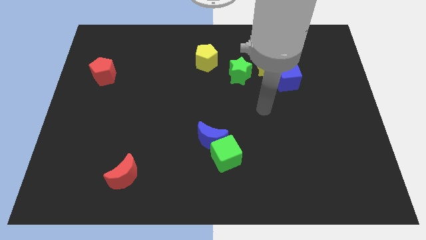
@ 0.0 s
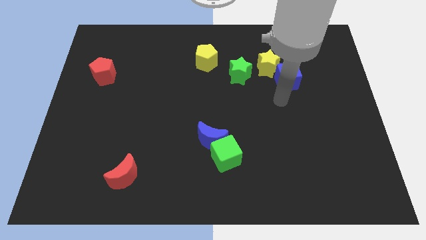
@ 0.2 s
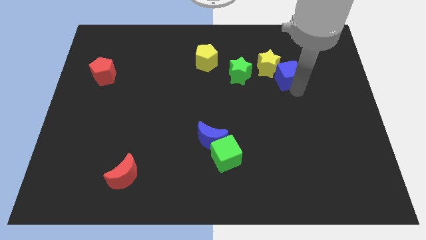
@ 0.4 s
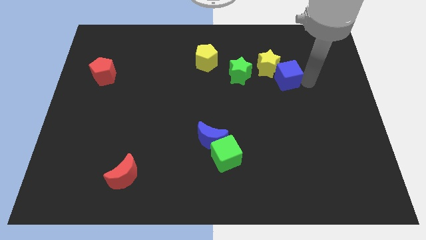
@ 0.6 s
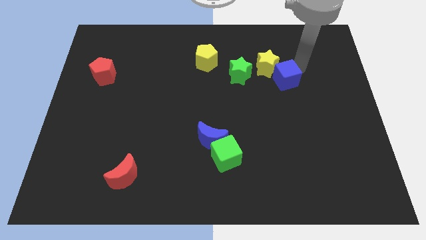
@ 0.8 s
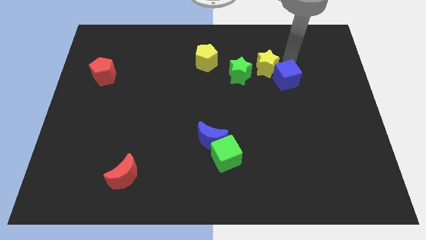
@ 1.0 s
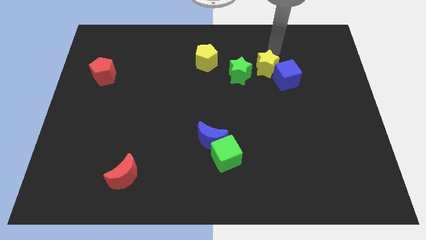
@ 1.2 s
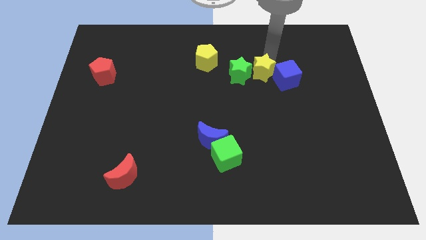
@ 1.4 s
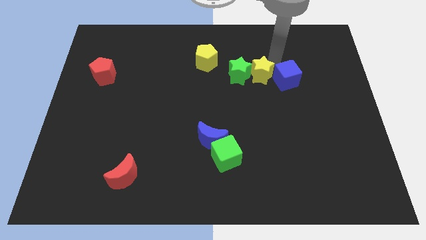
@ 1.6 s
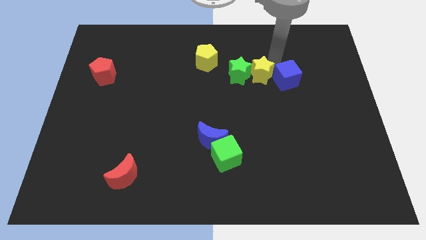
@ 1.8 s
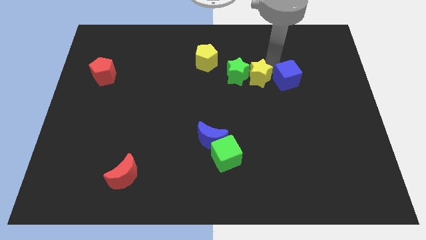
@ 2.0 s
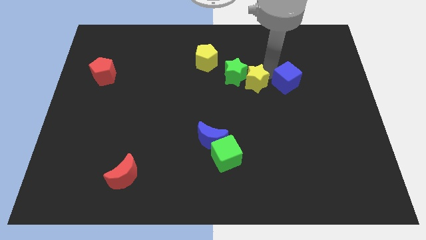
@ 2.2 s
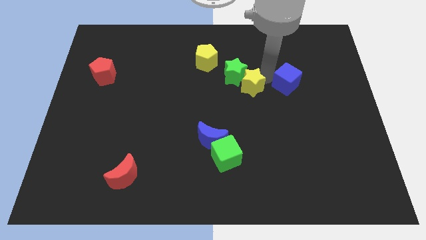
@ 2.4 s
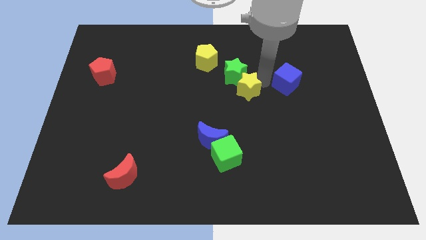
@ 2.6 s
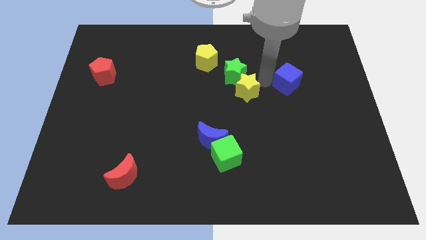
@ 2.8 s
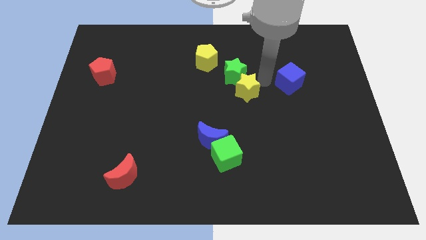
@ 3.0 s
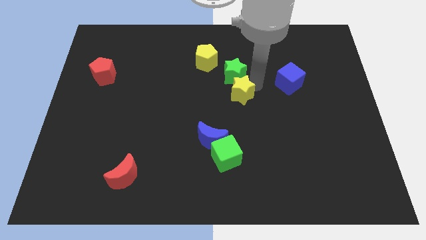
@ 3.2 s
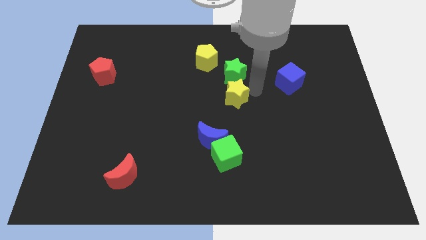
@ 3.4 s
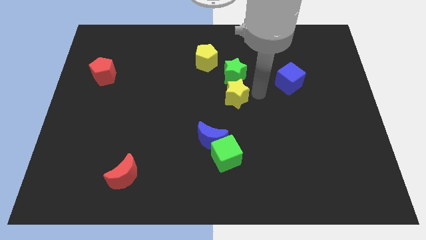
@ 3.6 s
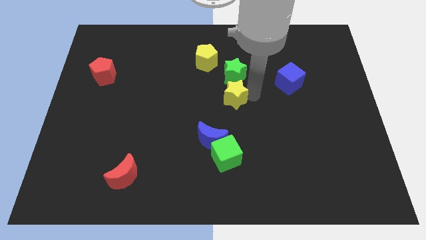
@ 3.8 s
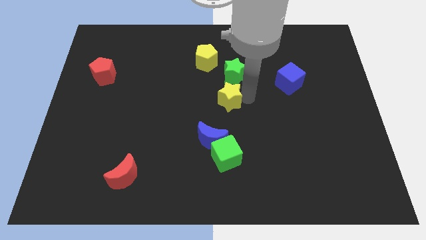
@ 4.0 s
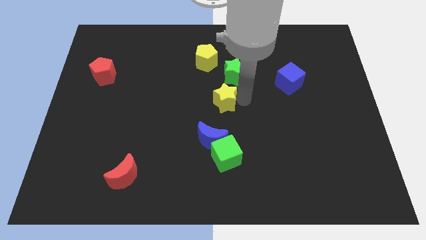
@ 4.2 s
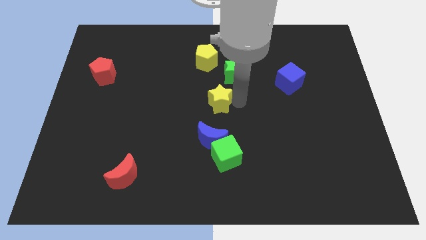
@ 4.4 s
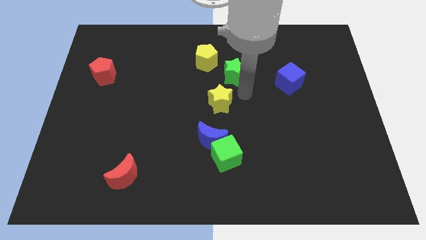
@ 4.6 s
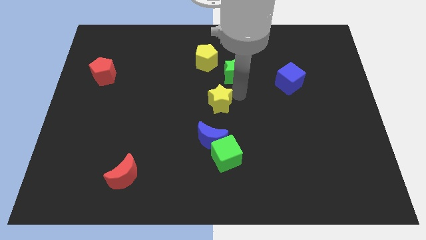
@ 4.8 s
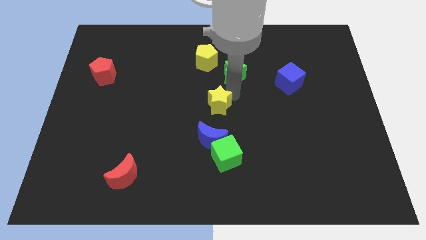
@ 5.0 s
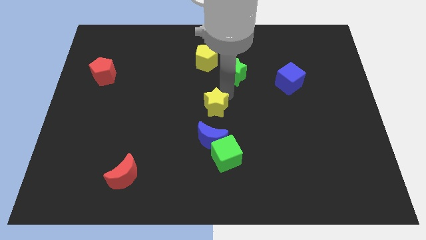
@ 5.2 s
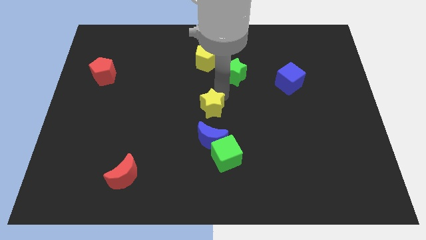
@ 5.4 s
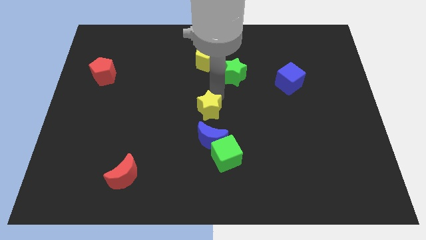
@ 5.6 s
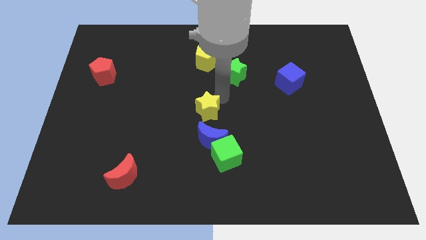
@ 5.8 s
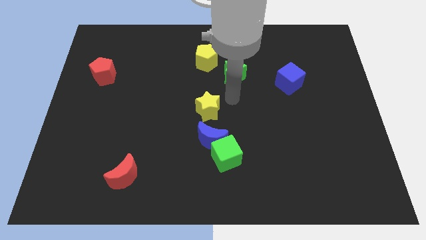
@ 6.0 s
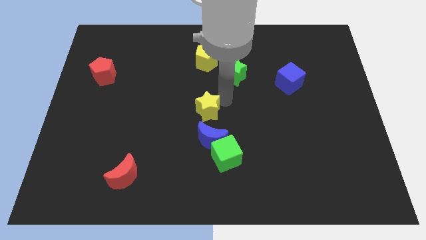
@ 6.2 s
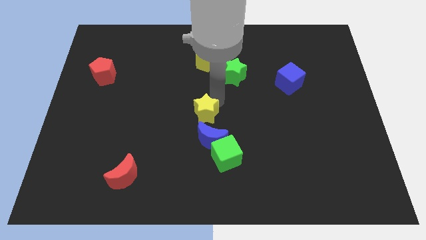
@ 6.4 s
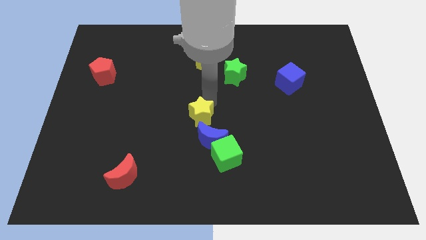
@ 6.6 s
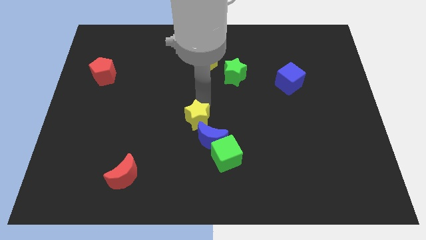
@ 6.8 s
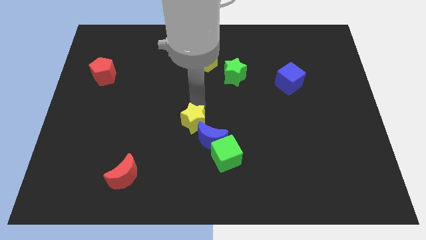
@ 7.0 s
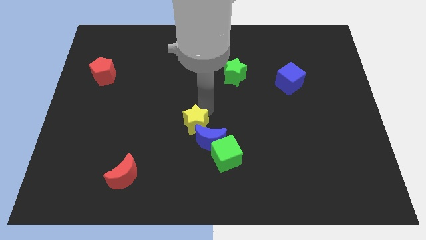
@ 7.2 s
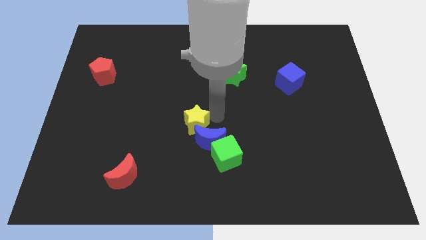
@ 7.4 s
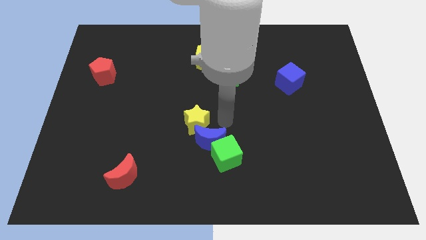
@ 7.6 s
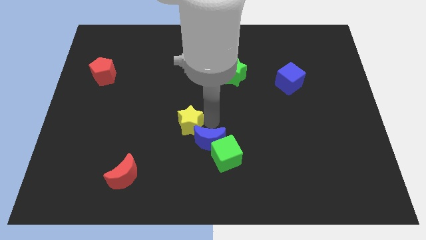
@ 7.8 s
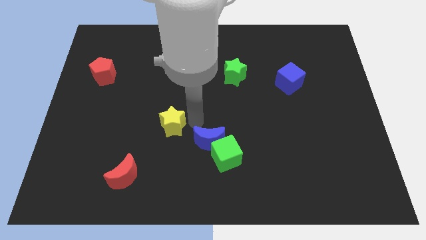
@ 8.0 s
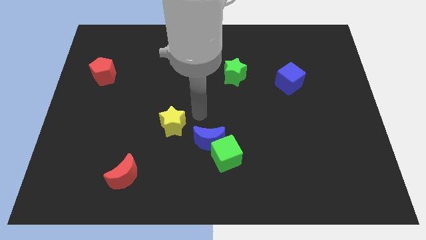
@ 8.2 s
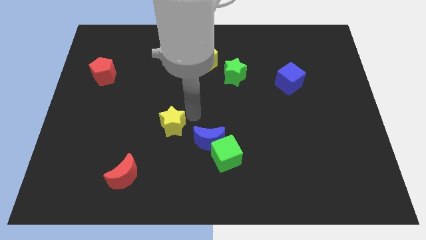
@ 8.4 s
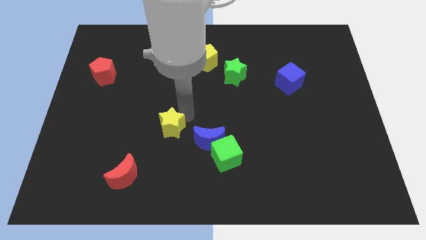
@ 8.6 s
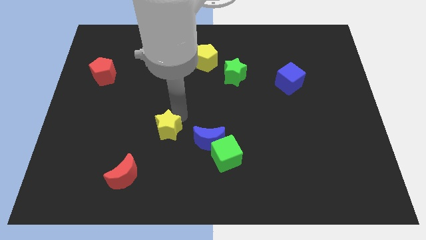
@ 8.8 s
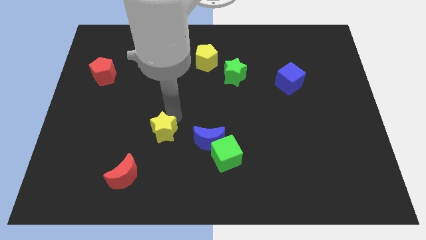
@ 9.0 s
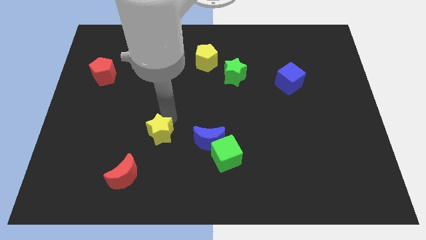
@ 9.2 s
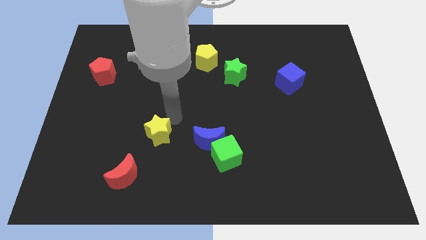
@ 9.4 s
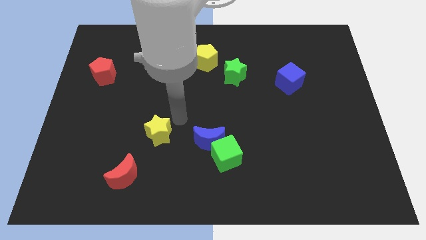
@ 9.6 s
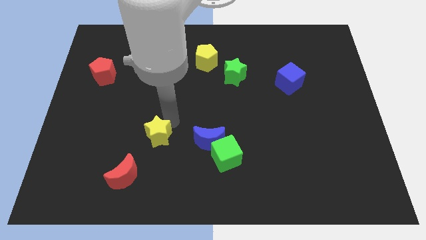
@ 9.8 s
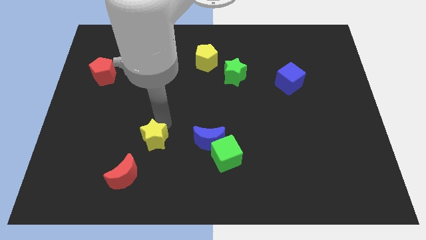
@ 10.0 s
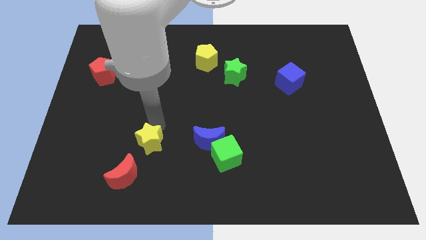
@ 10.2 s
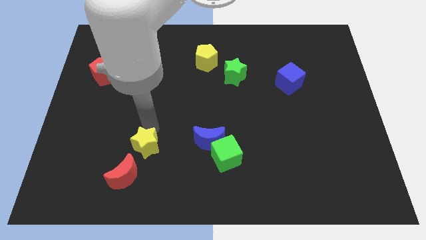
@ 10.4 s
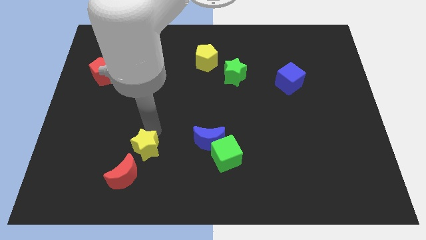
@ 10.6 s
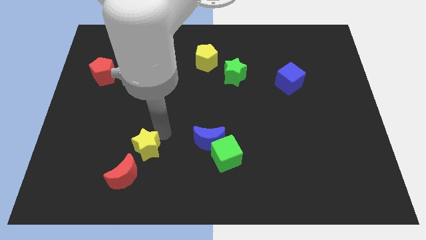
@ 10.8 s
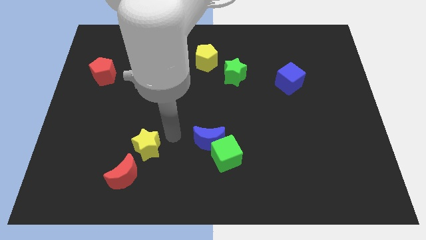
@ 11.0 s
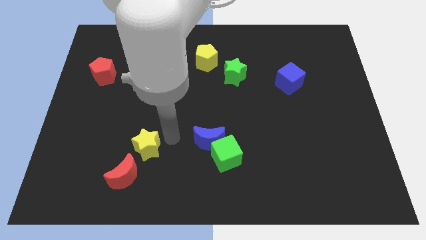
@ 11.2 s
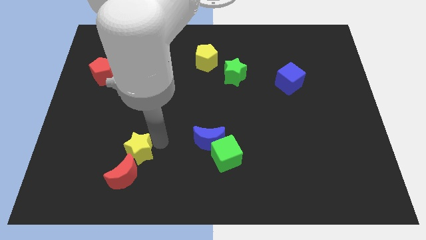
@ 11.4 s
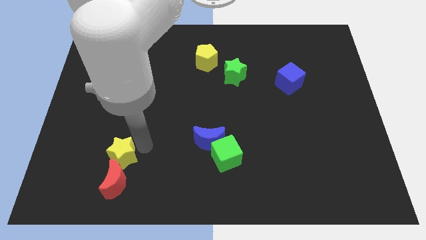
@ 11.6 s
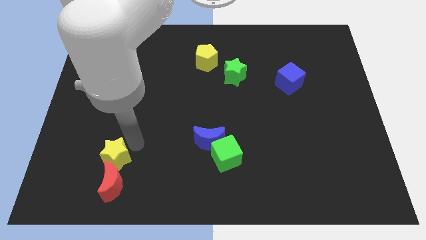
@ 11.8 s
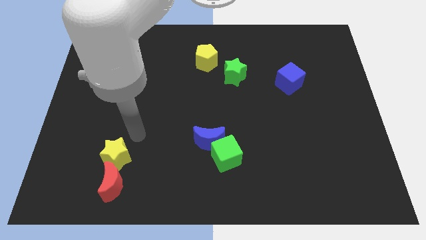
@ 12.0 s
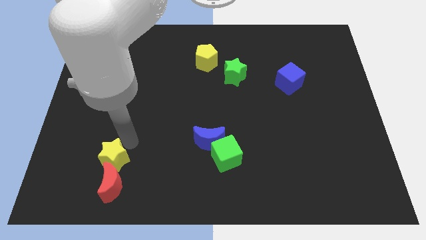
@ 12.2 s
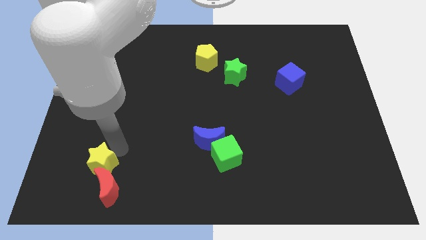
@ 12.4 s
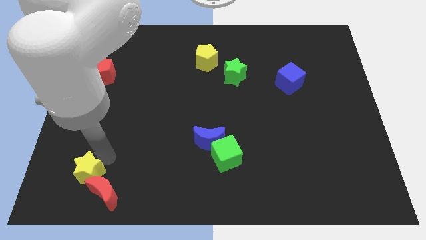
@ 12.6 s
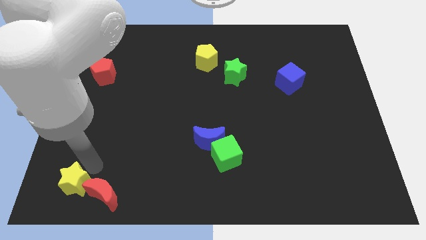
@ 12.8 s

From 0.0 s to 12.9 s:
slide the yellow star to the bottom left
